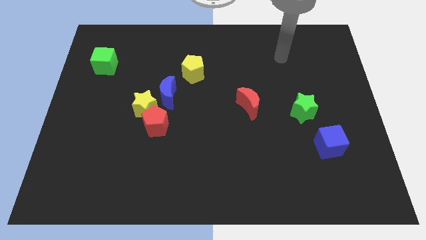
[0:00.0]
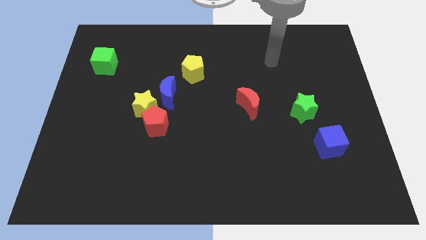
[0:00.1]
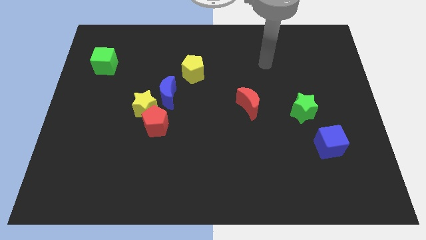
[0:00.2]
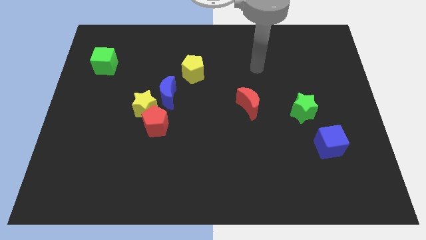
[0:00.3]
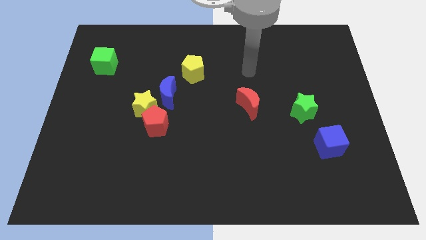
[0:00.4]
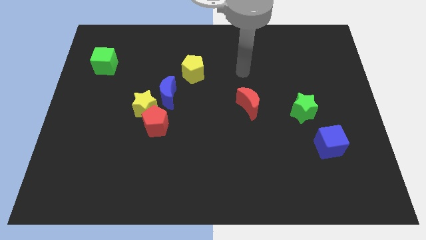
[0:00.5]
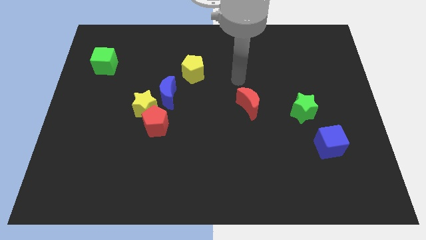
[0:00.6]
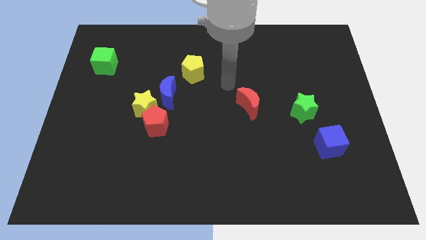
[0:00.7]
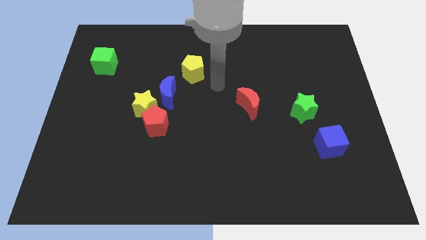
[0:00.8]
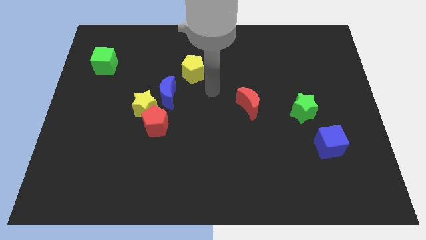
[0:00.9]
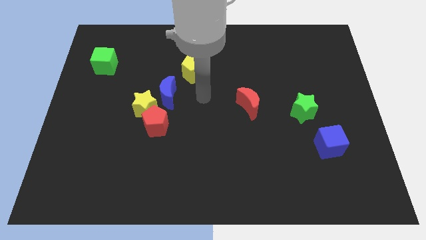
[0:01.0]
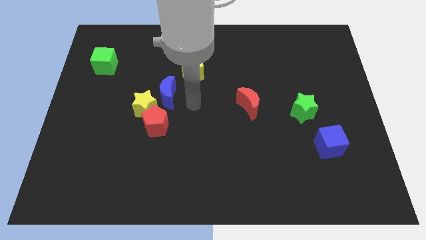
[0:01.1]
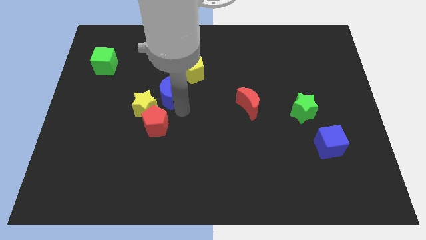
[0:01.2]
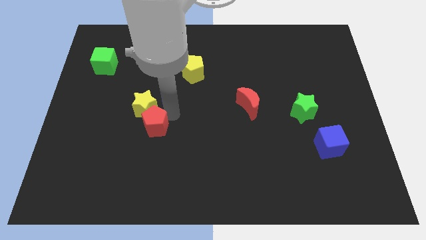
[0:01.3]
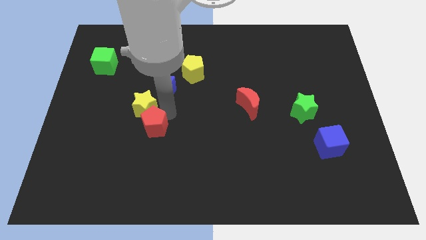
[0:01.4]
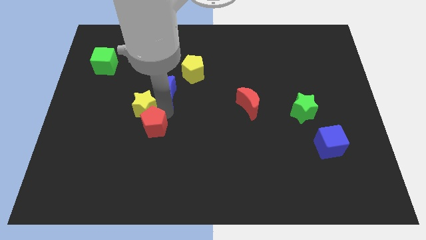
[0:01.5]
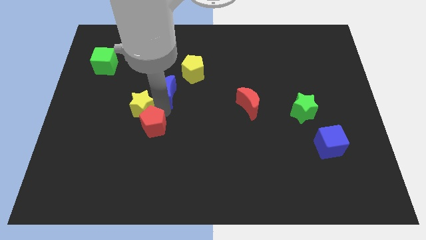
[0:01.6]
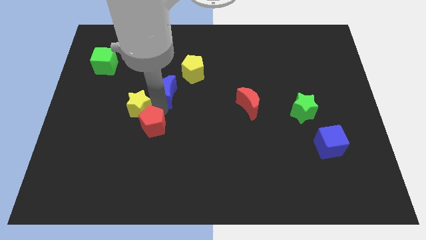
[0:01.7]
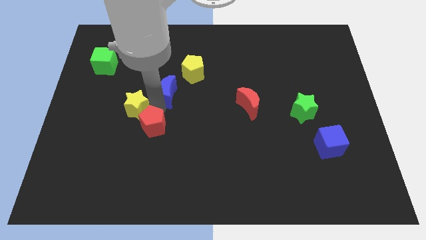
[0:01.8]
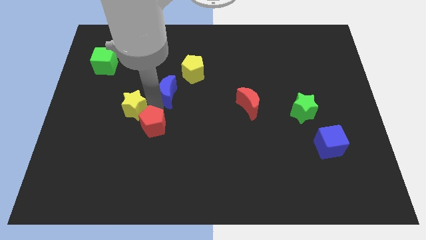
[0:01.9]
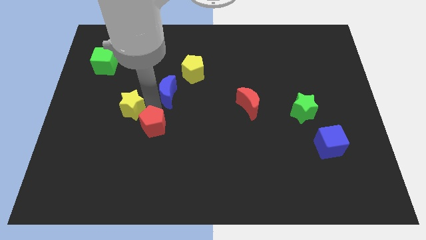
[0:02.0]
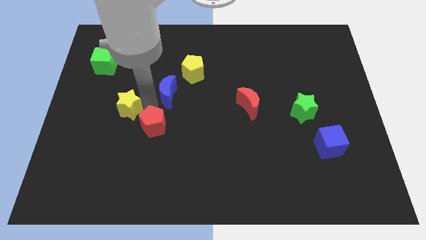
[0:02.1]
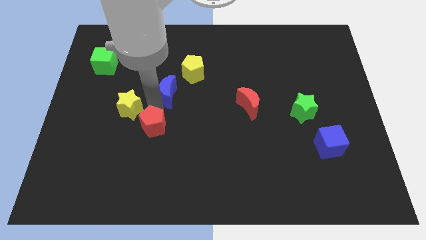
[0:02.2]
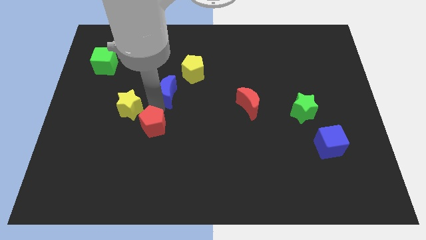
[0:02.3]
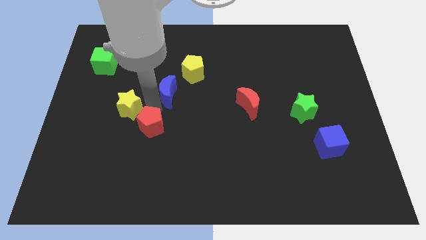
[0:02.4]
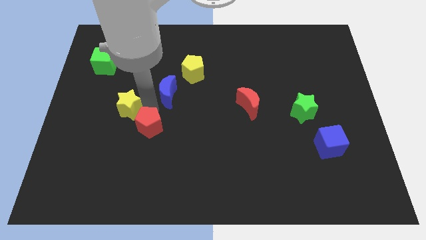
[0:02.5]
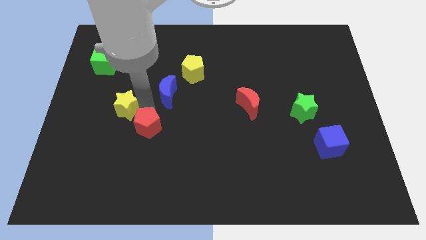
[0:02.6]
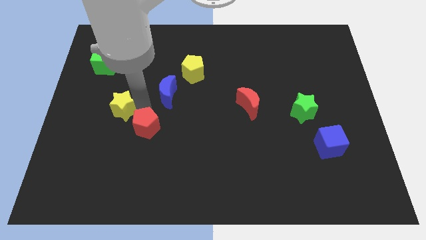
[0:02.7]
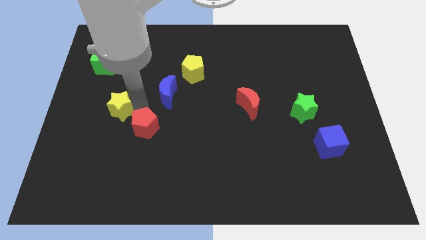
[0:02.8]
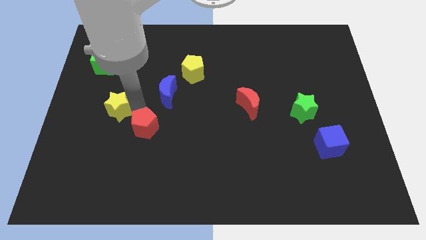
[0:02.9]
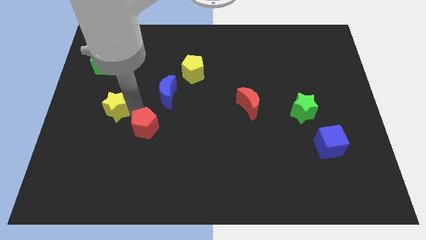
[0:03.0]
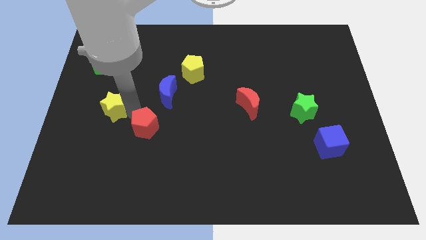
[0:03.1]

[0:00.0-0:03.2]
pull the yellow star apart from the red pentagon and blue moon

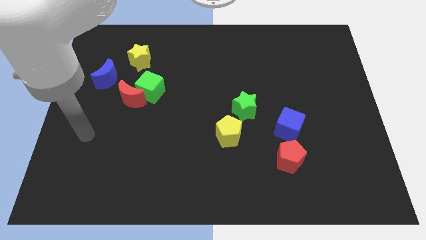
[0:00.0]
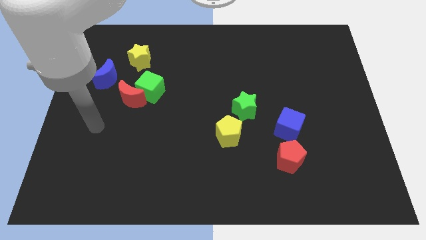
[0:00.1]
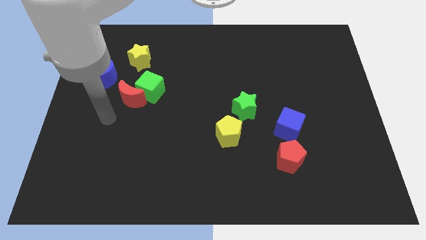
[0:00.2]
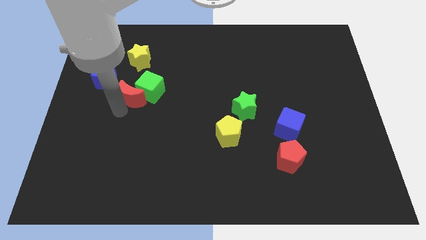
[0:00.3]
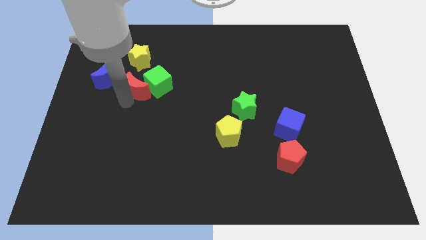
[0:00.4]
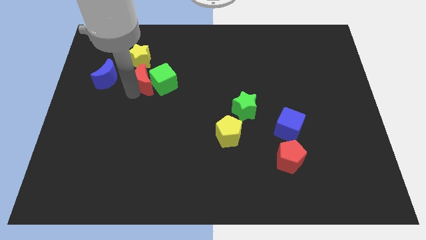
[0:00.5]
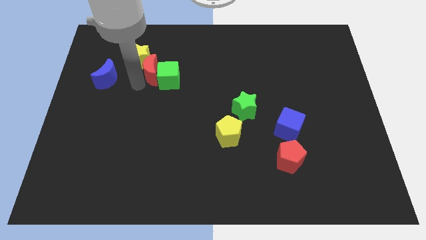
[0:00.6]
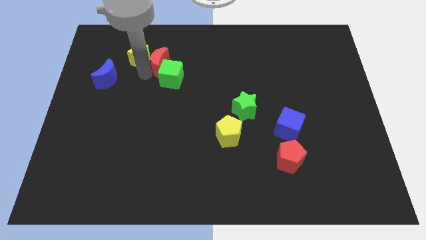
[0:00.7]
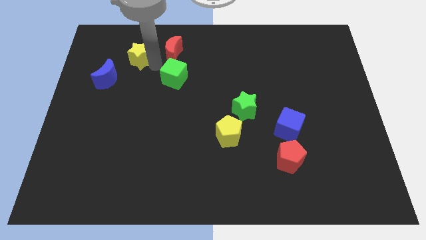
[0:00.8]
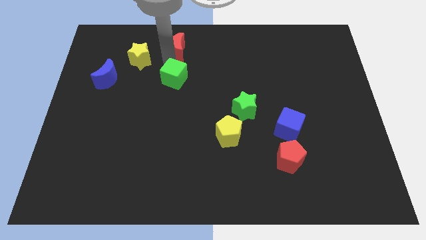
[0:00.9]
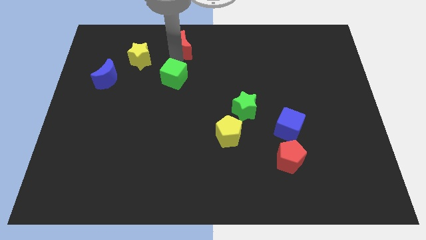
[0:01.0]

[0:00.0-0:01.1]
separate the green cube from the red moon

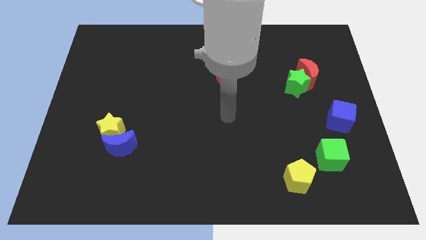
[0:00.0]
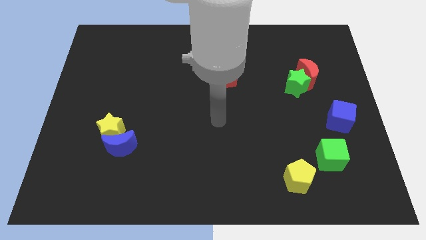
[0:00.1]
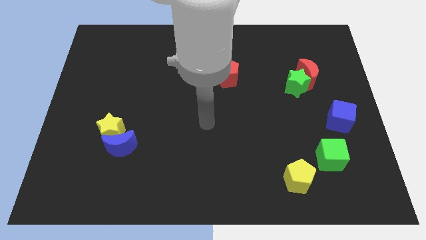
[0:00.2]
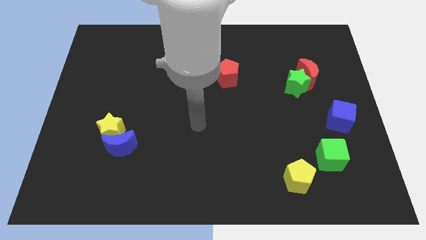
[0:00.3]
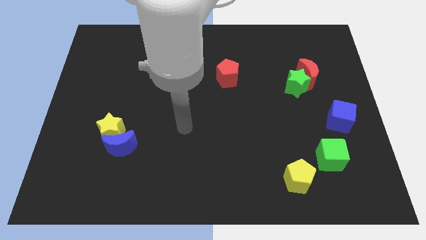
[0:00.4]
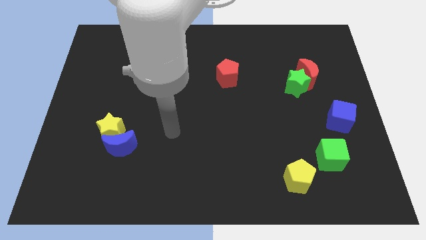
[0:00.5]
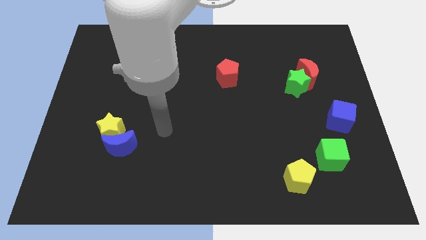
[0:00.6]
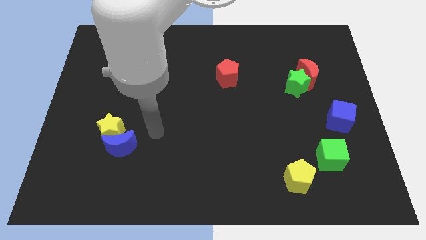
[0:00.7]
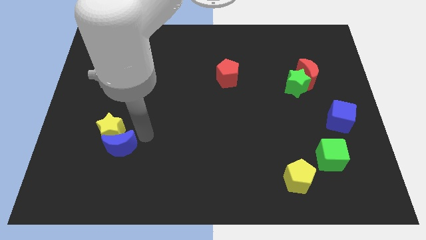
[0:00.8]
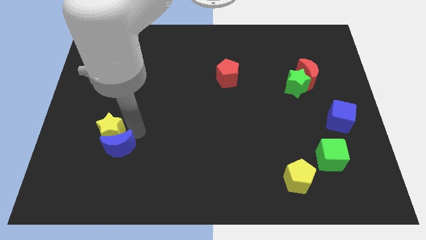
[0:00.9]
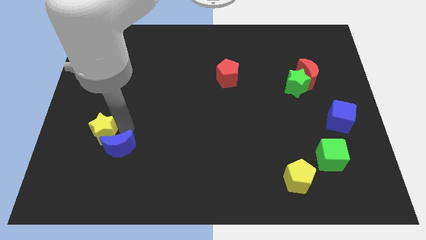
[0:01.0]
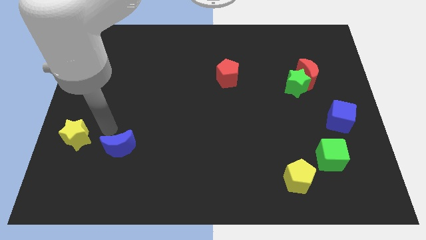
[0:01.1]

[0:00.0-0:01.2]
move the blue moon away from the yellow star

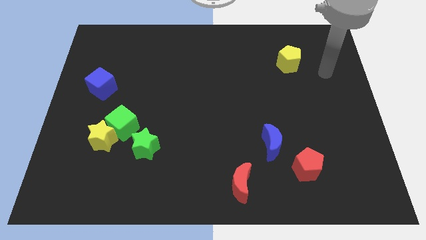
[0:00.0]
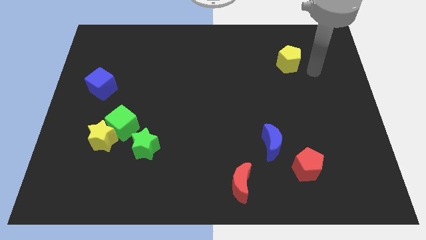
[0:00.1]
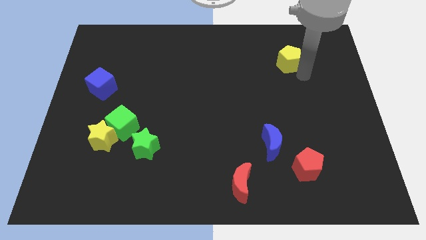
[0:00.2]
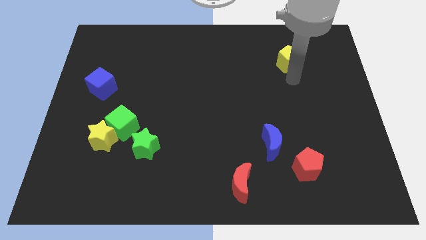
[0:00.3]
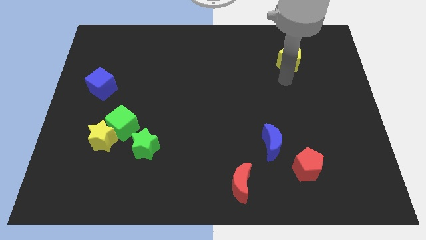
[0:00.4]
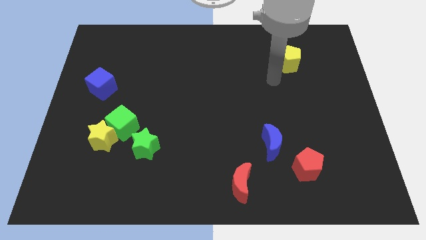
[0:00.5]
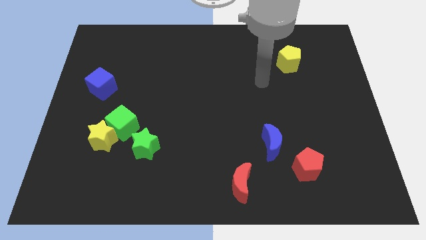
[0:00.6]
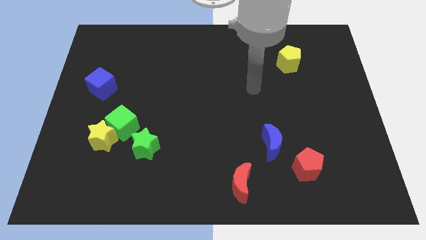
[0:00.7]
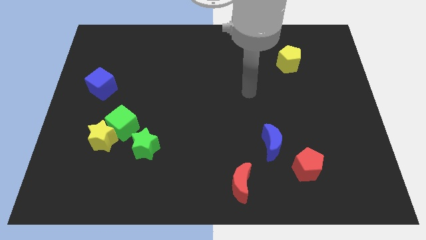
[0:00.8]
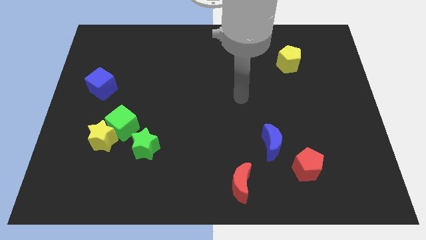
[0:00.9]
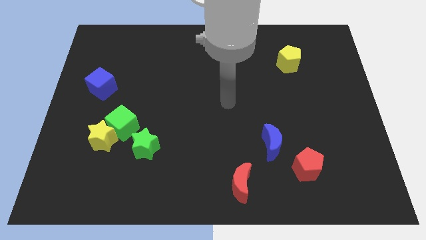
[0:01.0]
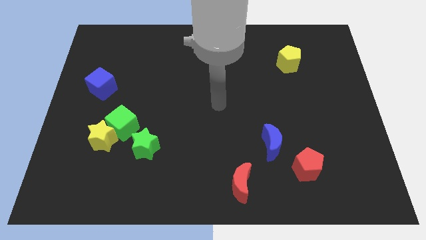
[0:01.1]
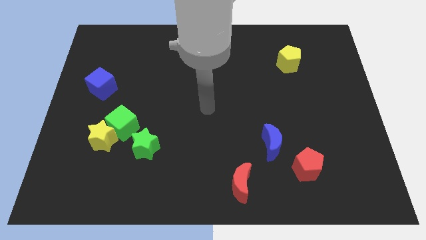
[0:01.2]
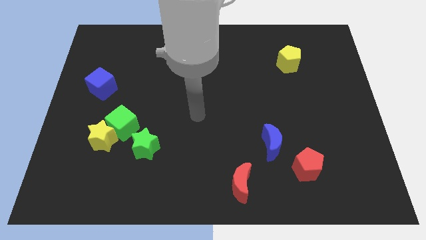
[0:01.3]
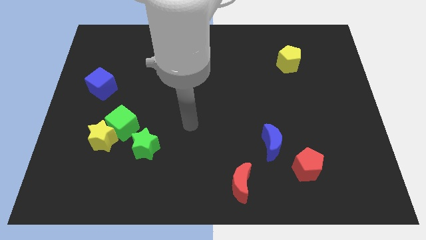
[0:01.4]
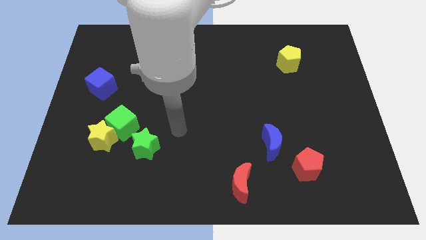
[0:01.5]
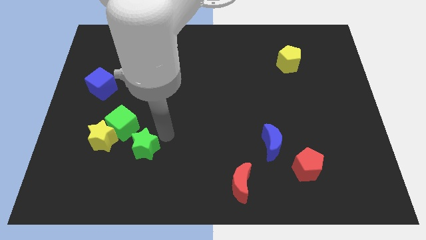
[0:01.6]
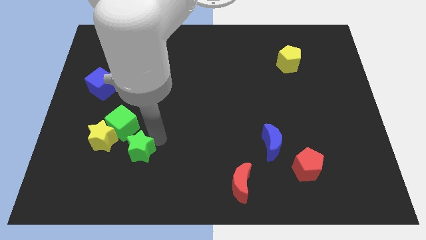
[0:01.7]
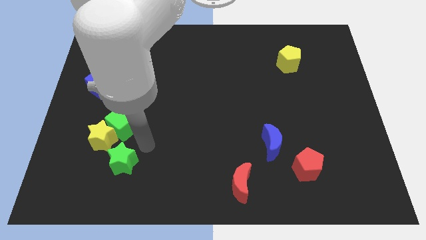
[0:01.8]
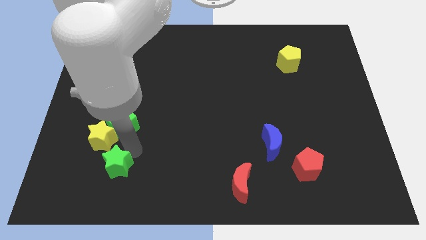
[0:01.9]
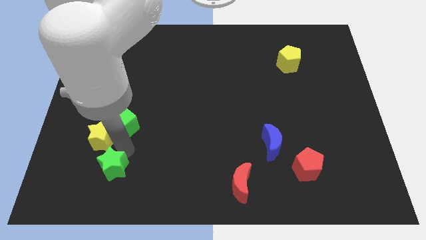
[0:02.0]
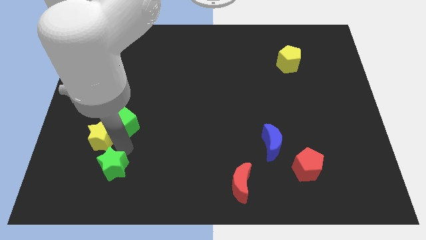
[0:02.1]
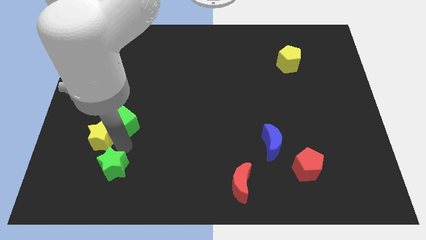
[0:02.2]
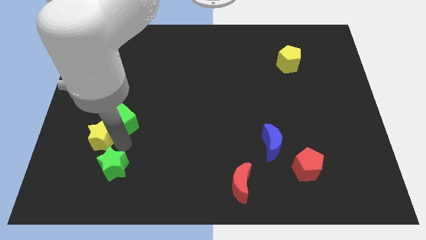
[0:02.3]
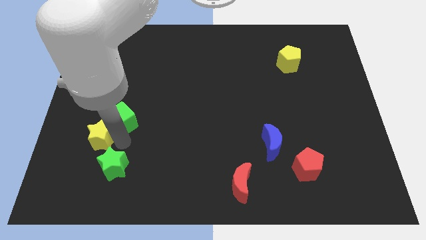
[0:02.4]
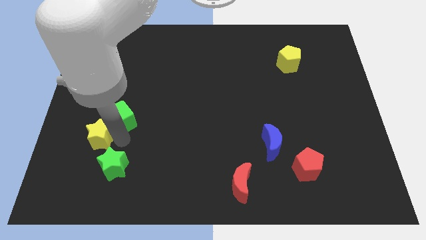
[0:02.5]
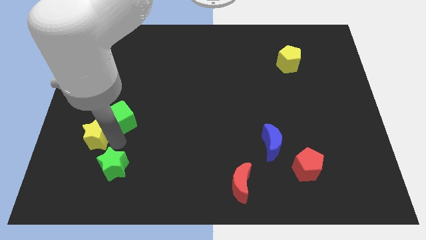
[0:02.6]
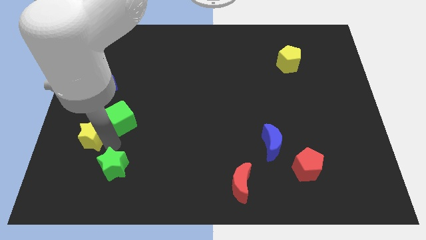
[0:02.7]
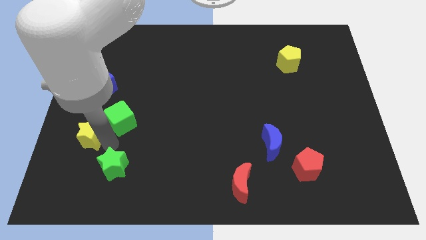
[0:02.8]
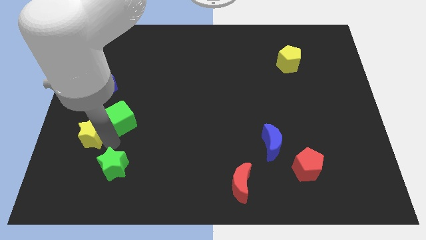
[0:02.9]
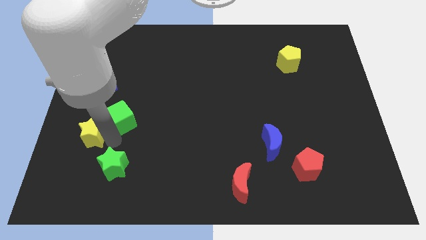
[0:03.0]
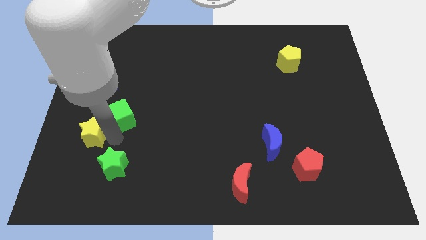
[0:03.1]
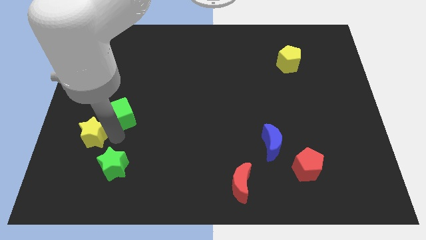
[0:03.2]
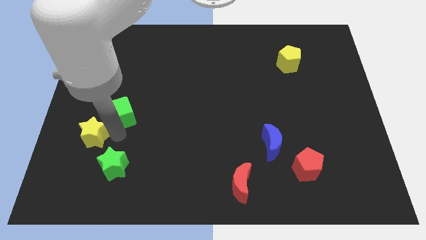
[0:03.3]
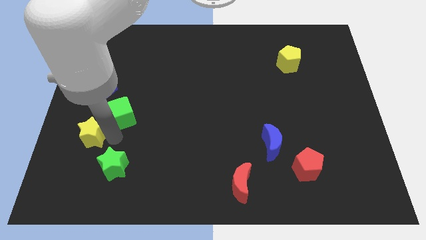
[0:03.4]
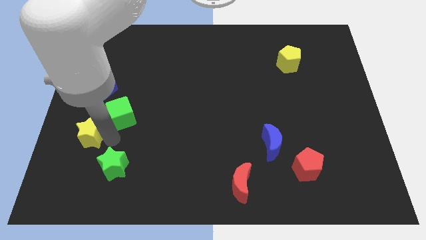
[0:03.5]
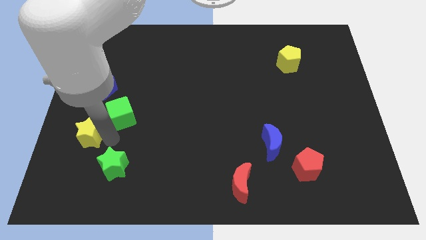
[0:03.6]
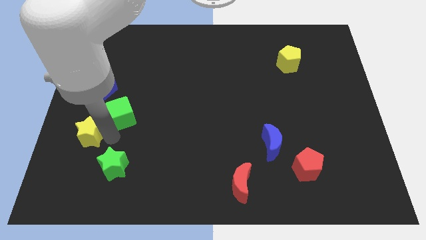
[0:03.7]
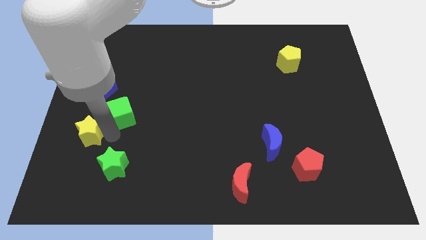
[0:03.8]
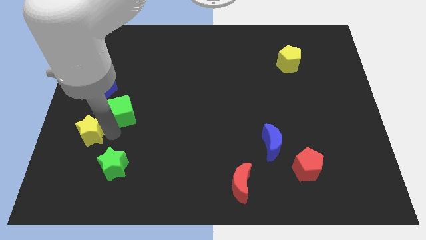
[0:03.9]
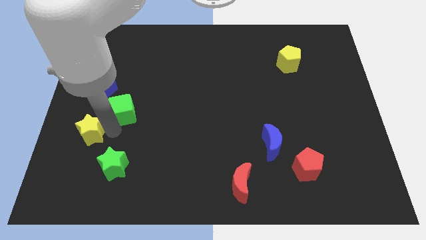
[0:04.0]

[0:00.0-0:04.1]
pull the green cube apart from the yellow star and green star

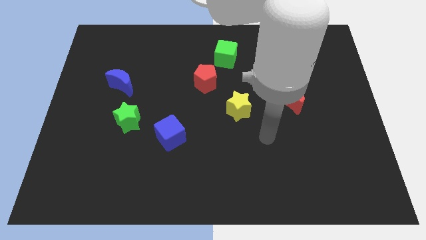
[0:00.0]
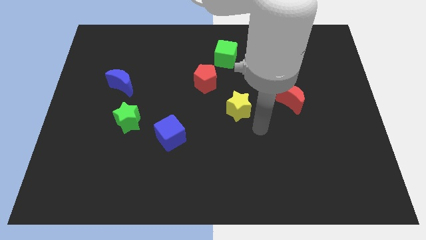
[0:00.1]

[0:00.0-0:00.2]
move the red pentagon away from the green cube
